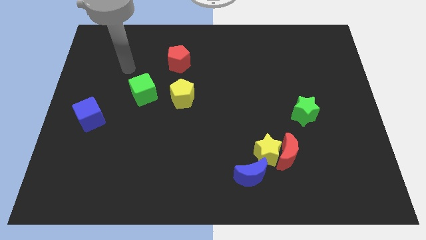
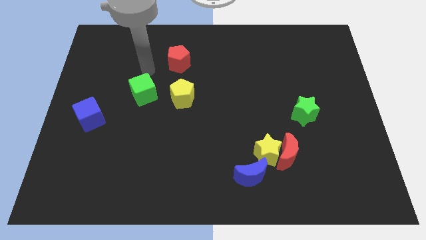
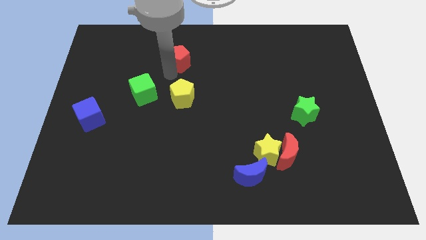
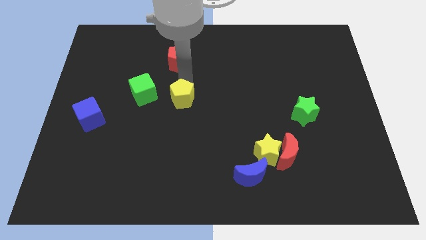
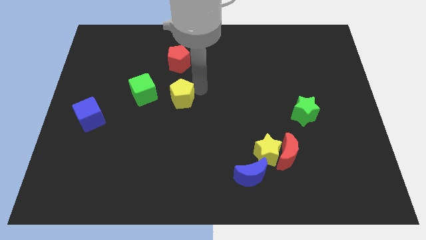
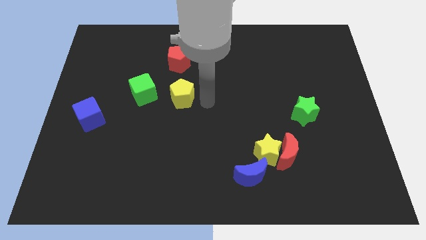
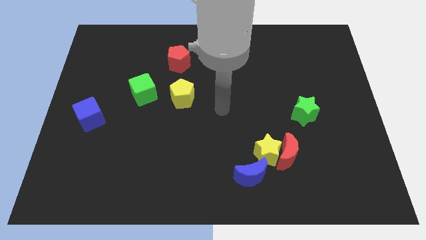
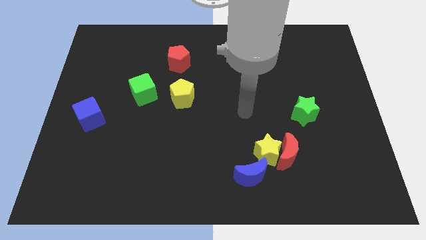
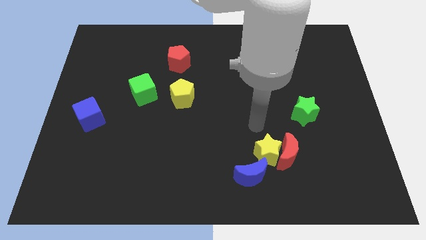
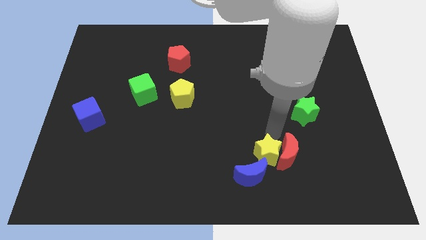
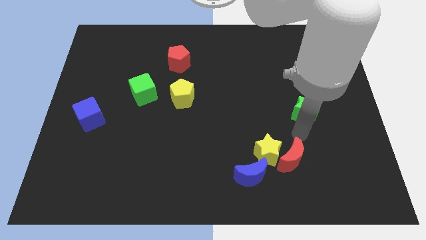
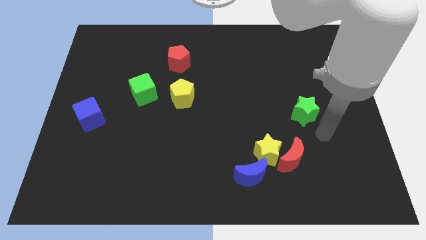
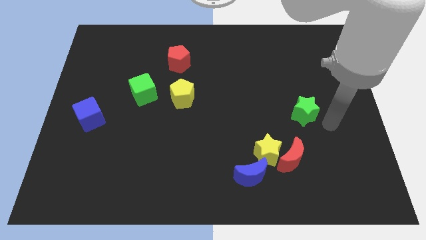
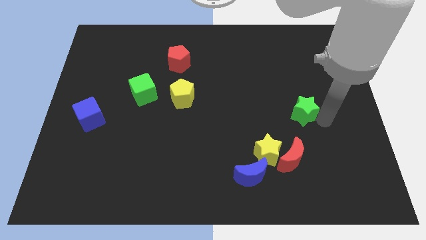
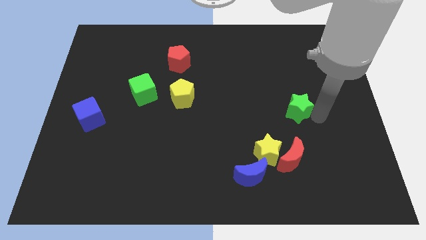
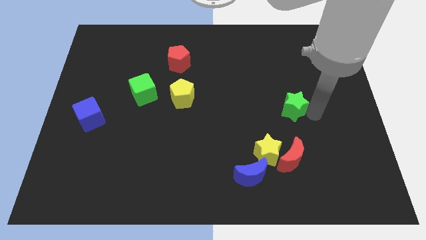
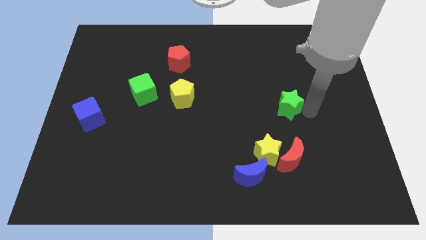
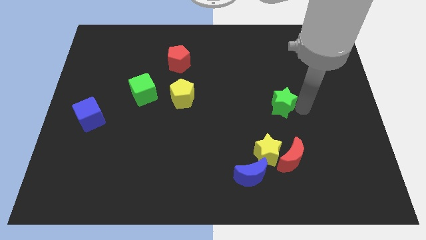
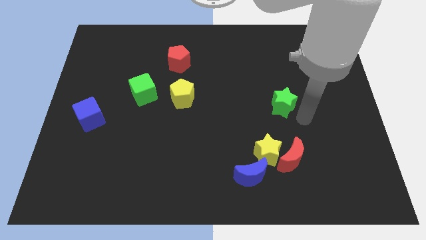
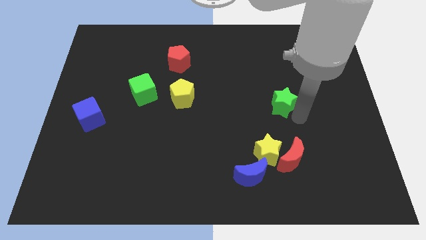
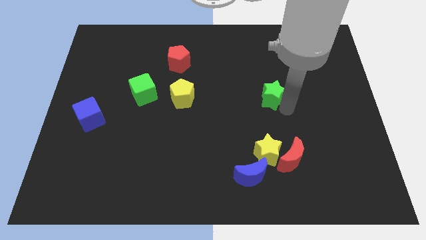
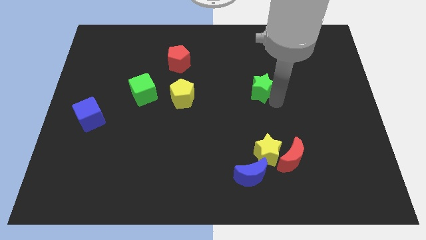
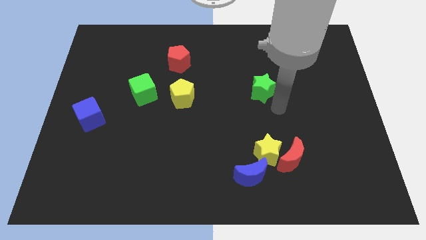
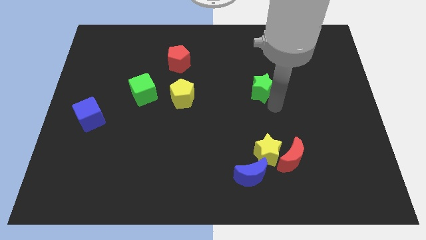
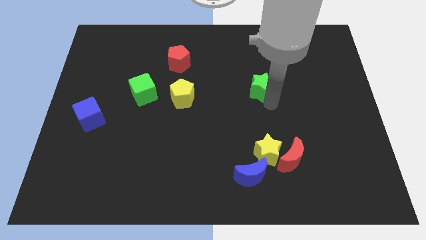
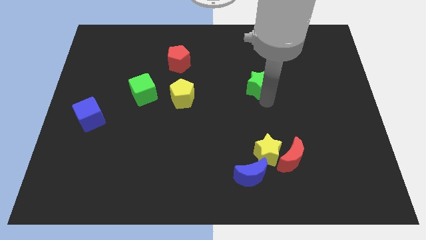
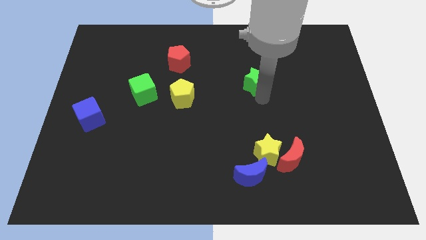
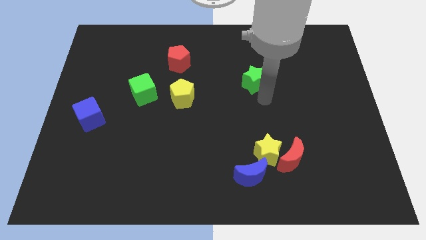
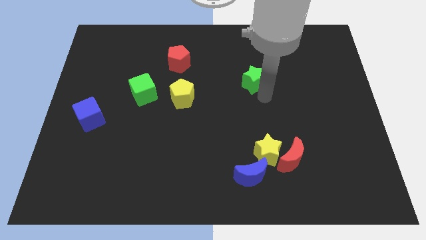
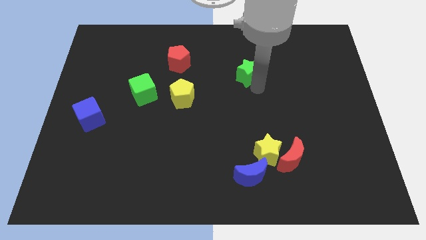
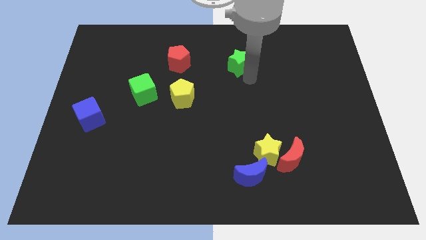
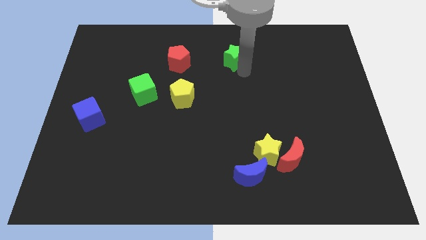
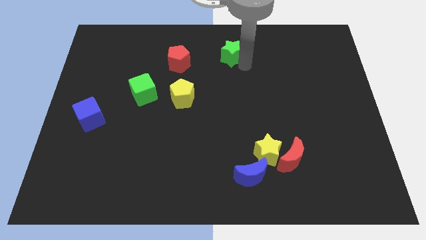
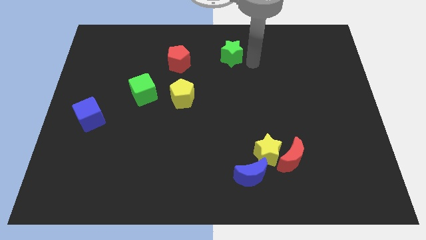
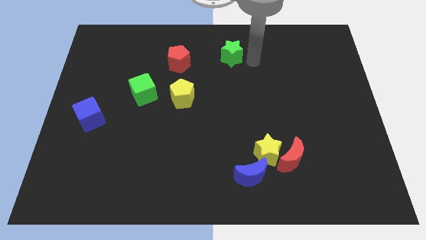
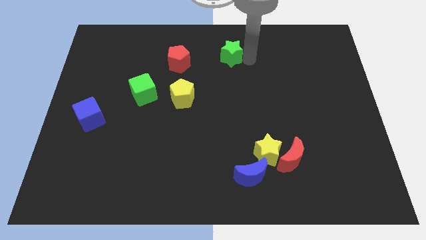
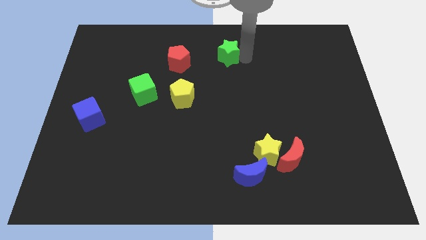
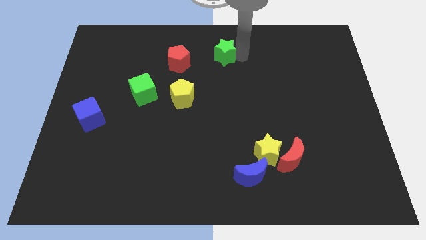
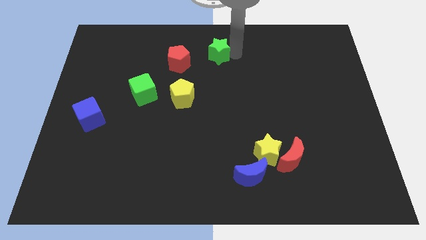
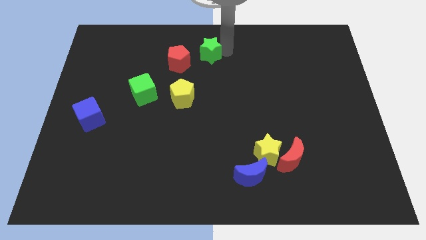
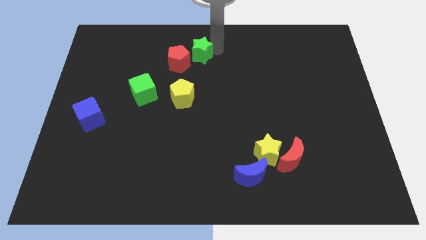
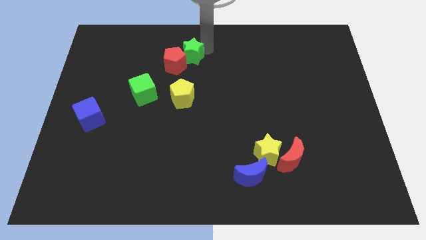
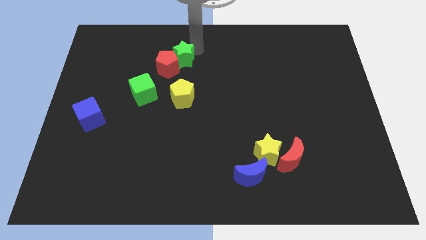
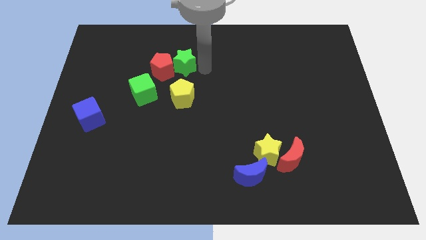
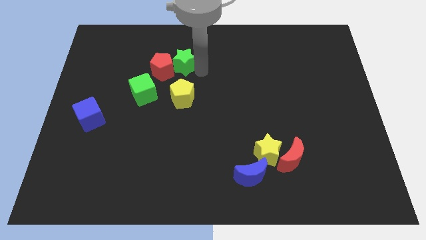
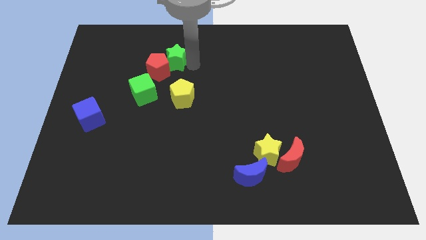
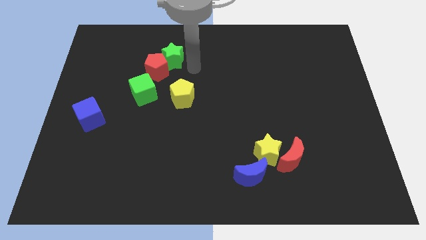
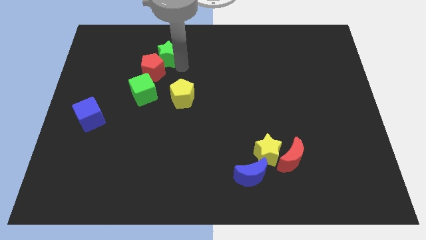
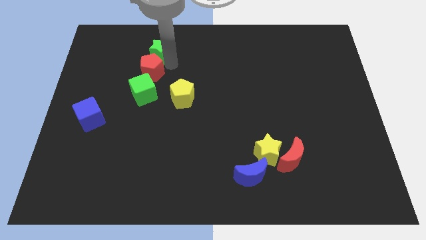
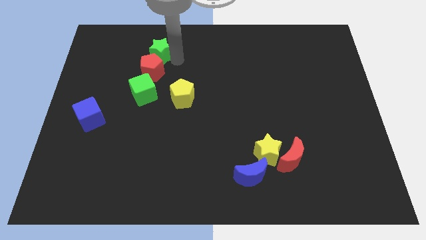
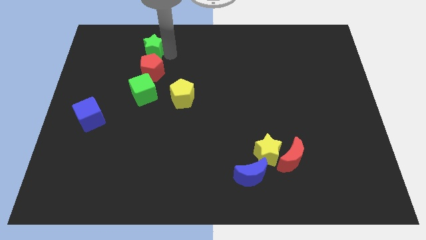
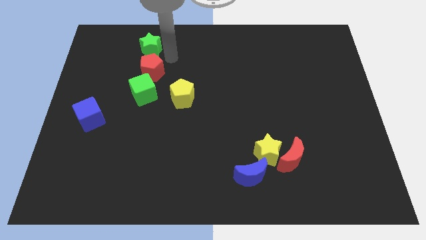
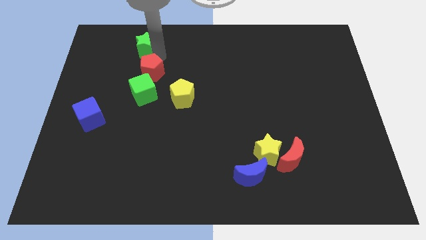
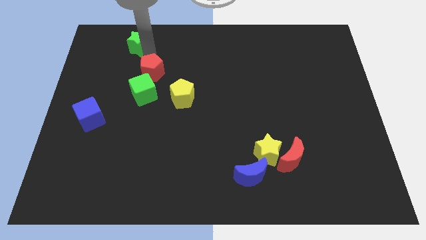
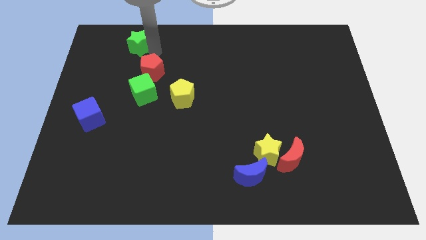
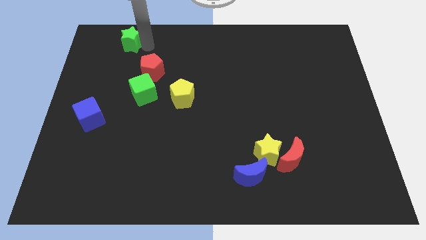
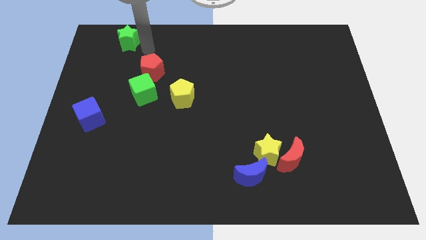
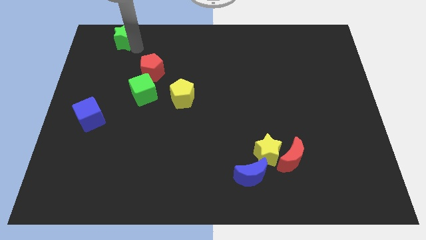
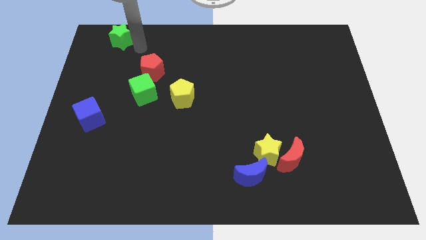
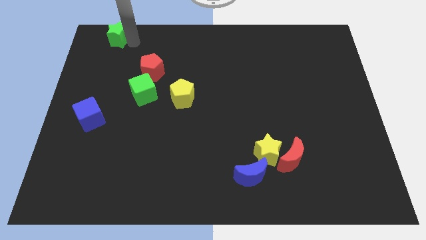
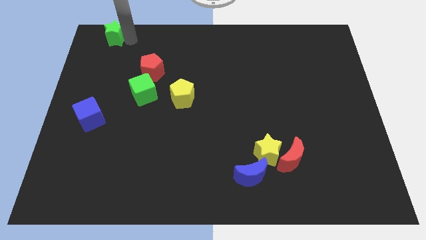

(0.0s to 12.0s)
move the green star to the upper left corner
